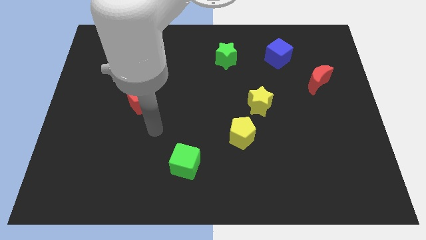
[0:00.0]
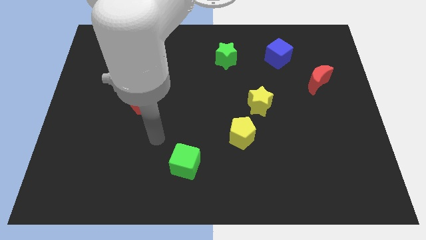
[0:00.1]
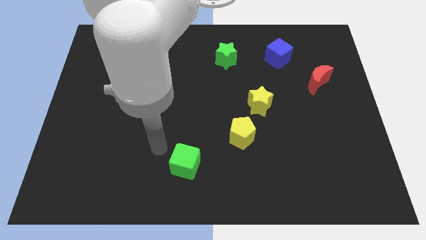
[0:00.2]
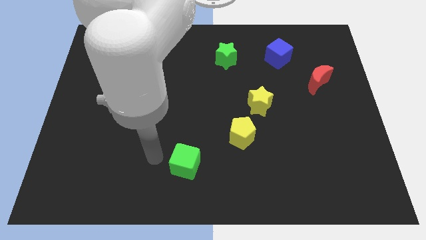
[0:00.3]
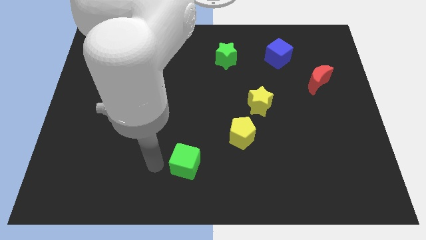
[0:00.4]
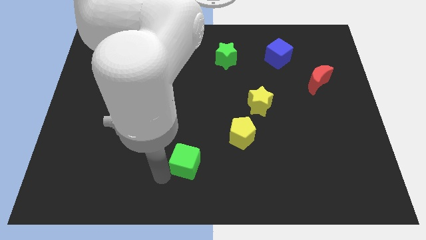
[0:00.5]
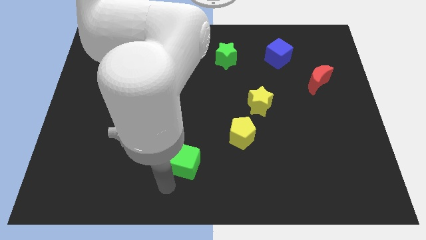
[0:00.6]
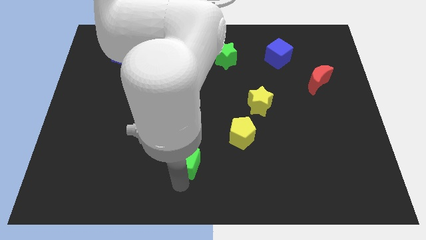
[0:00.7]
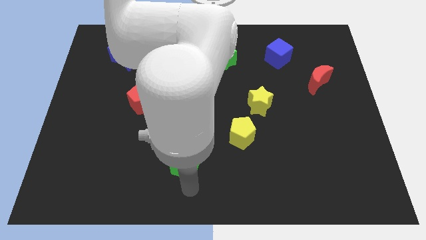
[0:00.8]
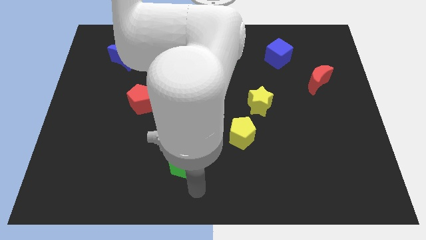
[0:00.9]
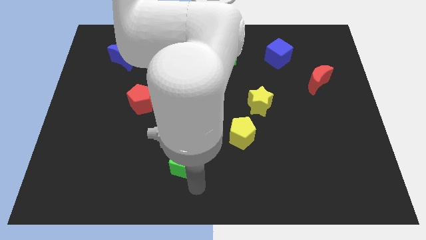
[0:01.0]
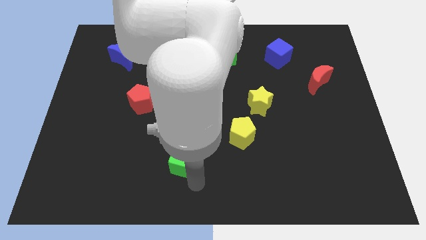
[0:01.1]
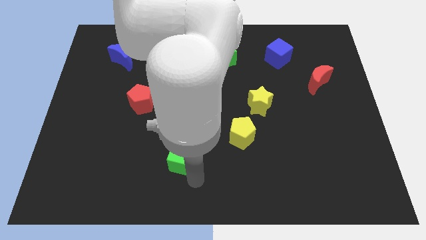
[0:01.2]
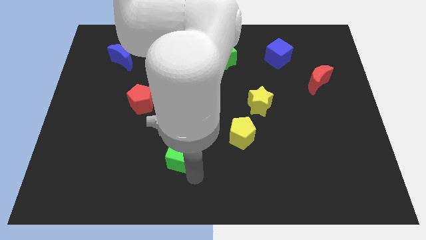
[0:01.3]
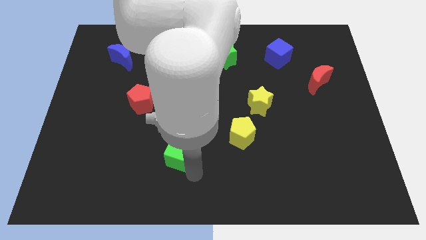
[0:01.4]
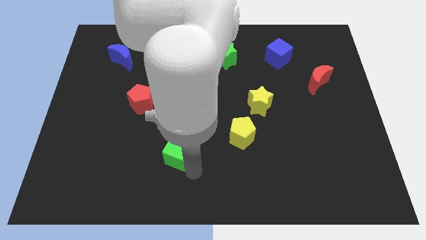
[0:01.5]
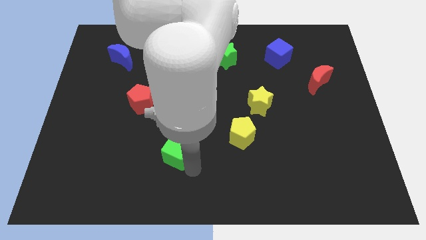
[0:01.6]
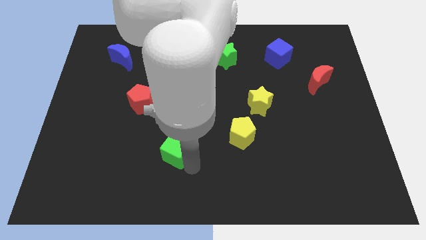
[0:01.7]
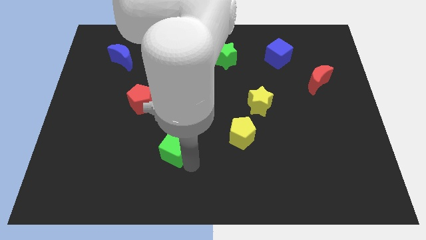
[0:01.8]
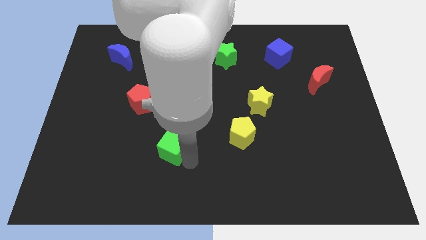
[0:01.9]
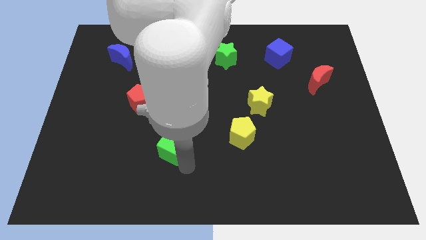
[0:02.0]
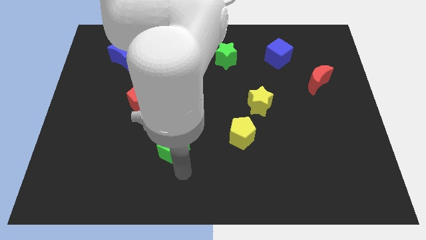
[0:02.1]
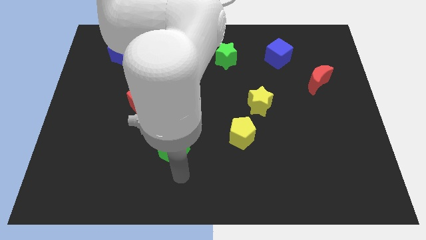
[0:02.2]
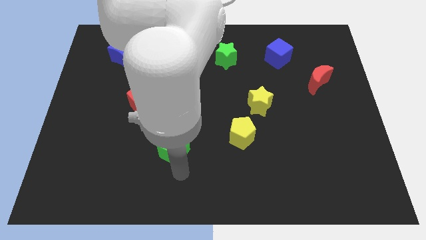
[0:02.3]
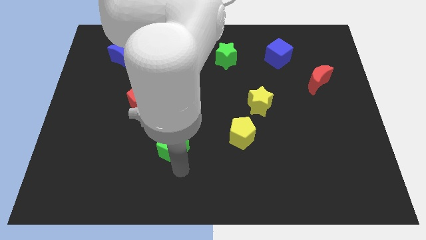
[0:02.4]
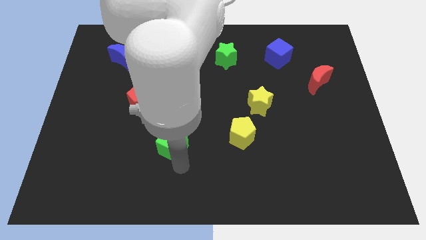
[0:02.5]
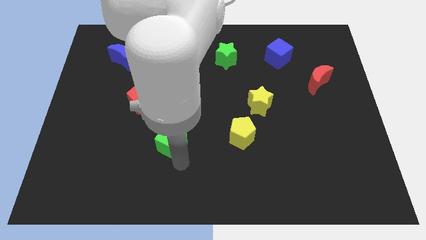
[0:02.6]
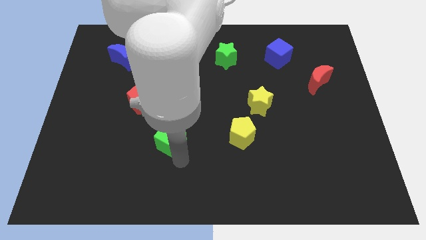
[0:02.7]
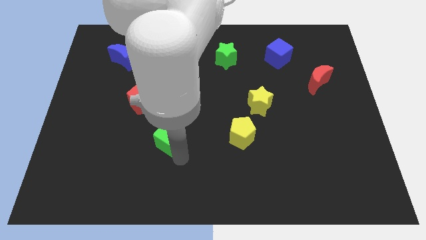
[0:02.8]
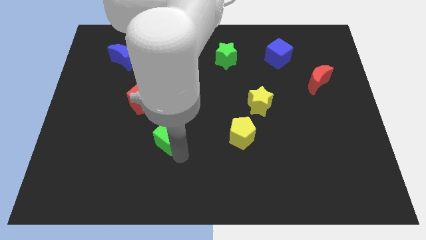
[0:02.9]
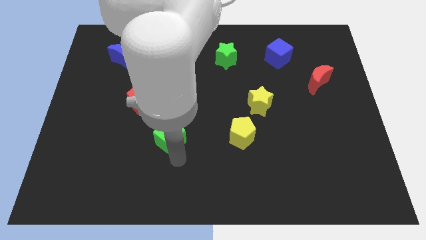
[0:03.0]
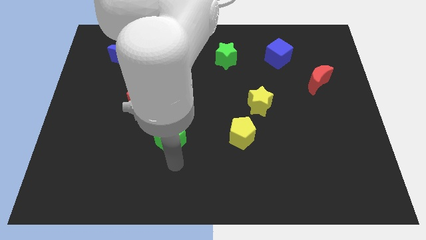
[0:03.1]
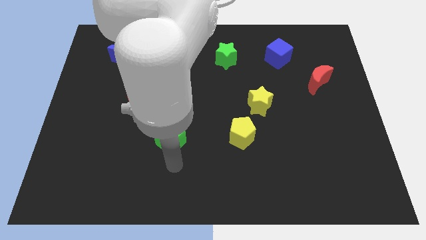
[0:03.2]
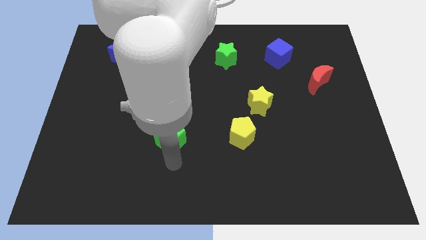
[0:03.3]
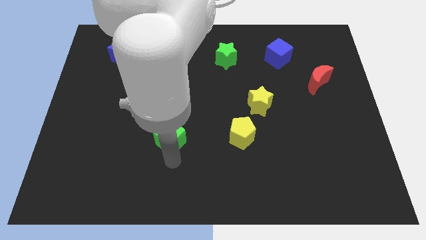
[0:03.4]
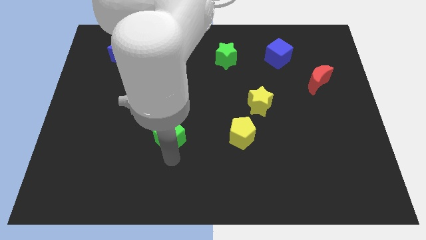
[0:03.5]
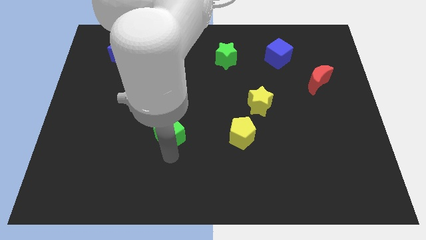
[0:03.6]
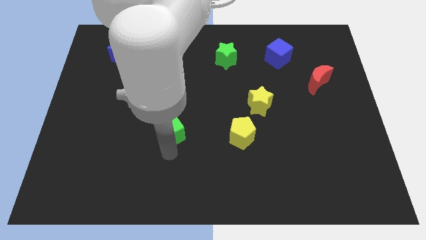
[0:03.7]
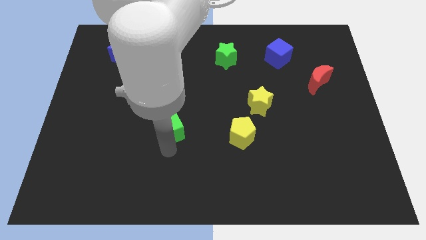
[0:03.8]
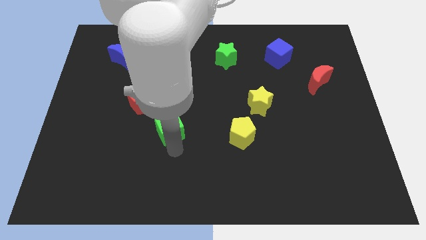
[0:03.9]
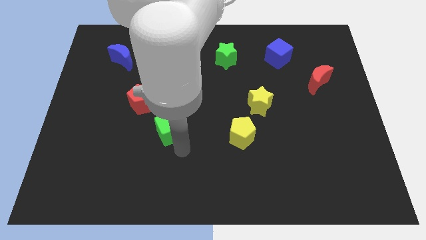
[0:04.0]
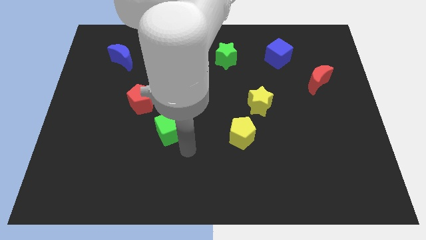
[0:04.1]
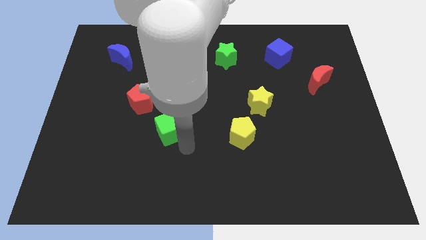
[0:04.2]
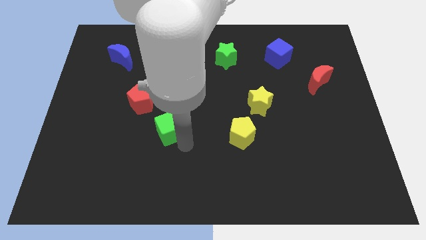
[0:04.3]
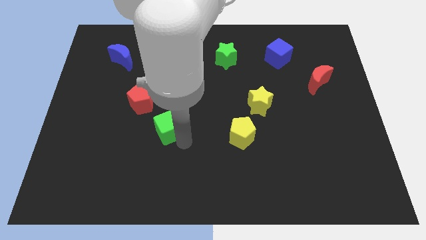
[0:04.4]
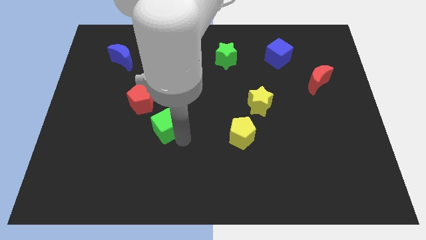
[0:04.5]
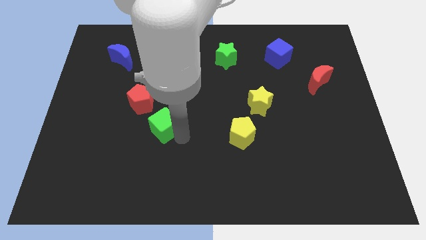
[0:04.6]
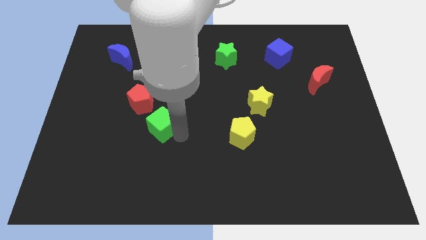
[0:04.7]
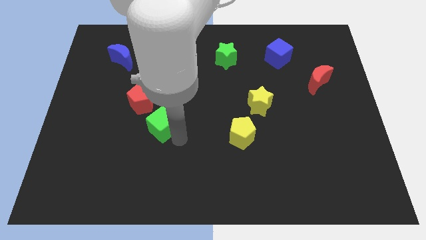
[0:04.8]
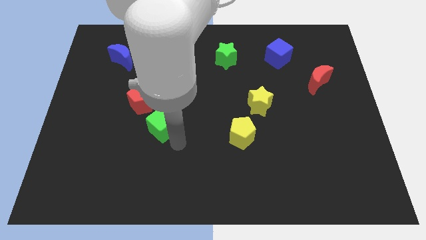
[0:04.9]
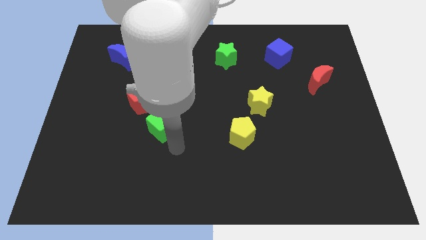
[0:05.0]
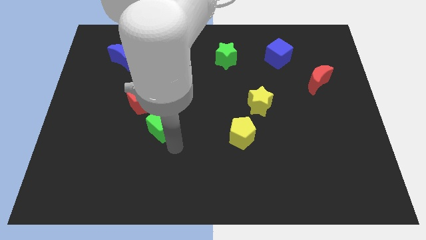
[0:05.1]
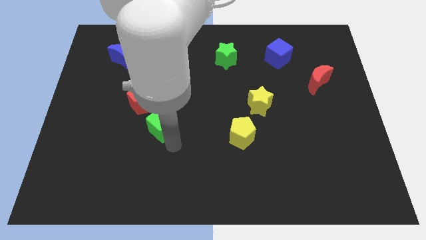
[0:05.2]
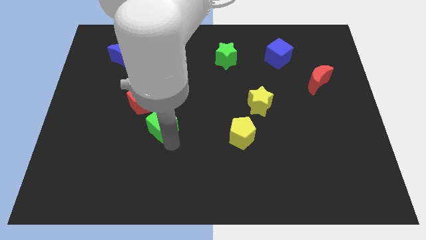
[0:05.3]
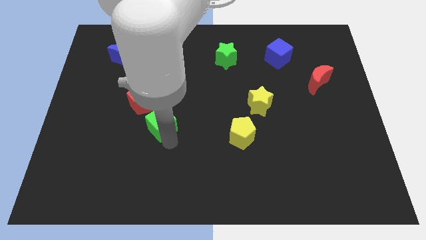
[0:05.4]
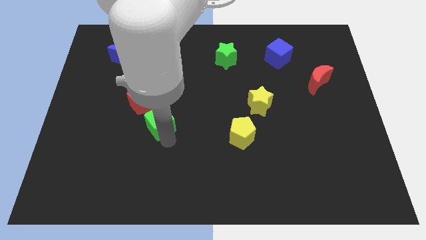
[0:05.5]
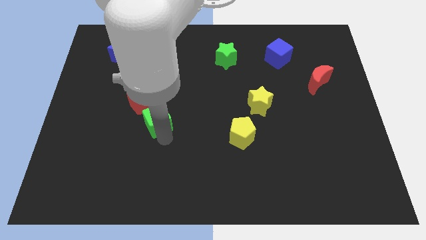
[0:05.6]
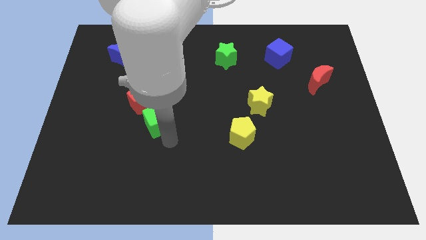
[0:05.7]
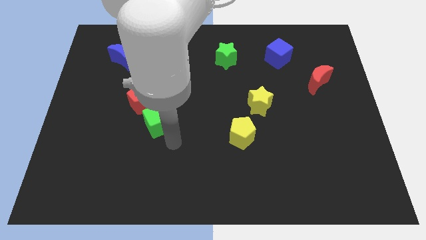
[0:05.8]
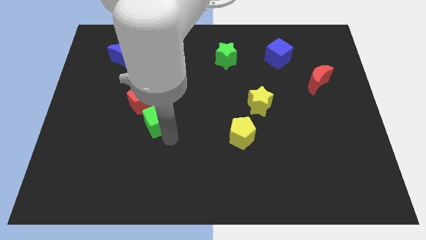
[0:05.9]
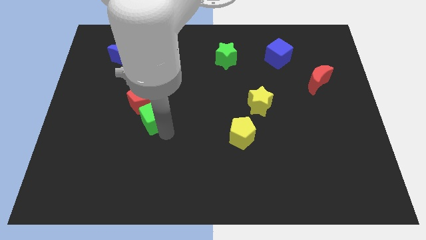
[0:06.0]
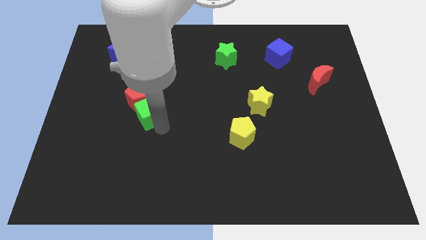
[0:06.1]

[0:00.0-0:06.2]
push the green cube to the red pentagon

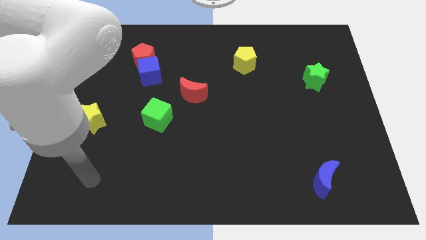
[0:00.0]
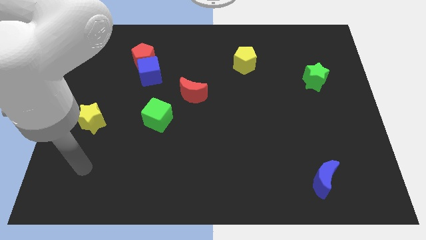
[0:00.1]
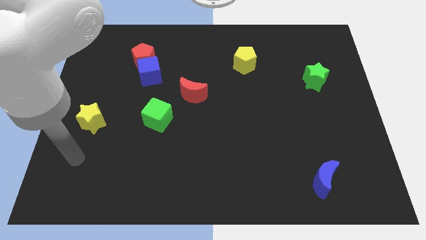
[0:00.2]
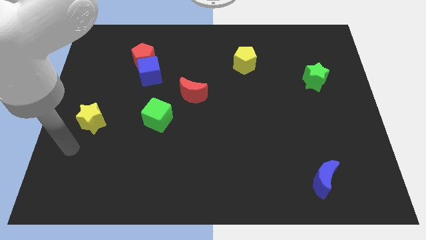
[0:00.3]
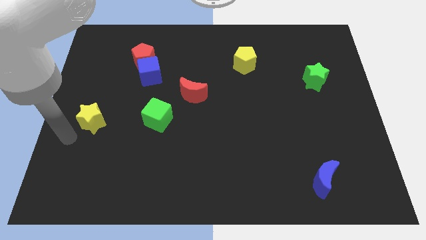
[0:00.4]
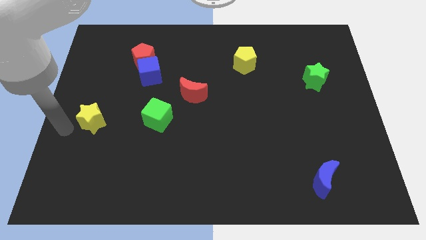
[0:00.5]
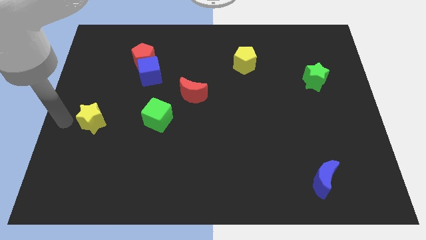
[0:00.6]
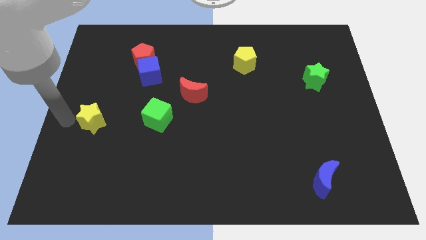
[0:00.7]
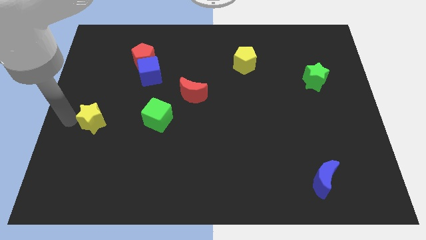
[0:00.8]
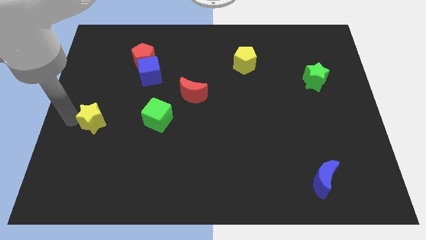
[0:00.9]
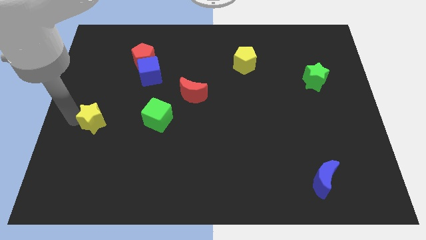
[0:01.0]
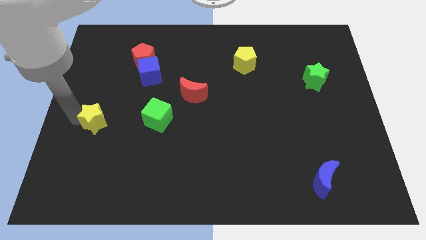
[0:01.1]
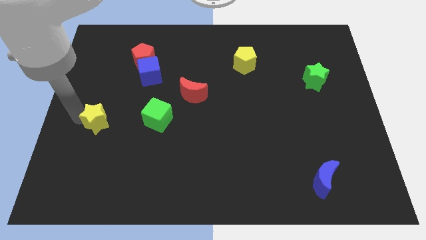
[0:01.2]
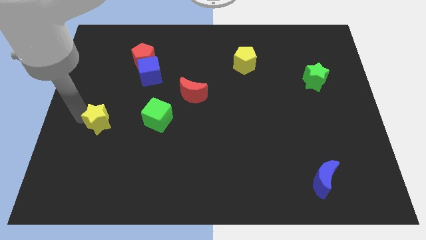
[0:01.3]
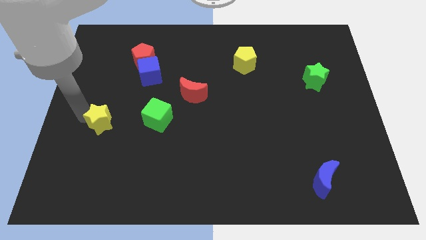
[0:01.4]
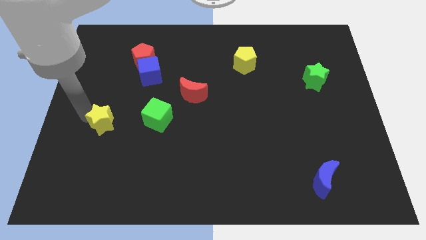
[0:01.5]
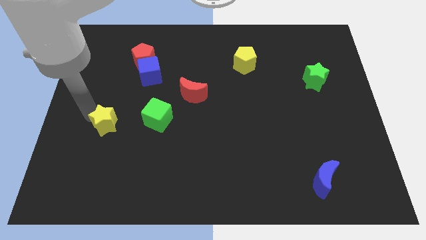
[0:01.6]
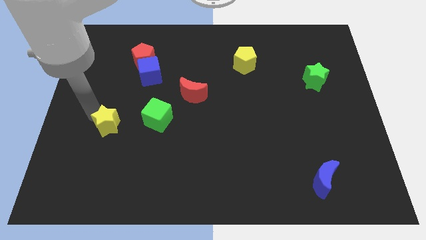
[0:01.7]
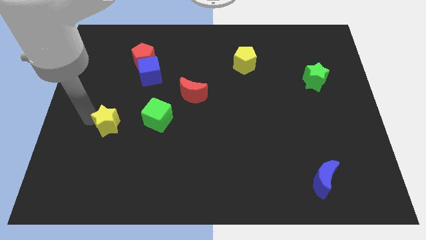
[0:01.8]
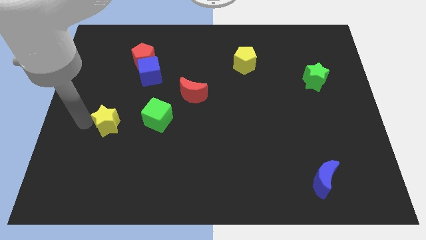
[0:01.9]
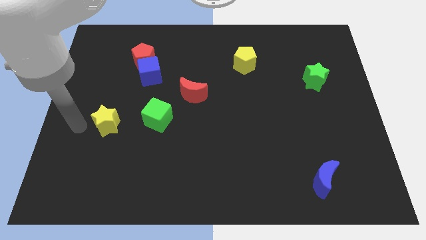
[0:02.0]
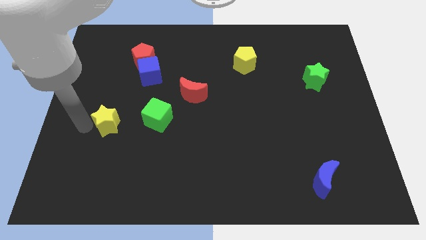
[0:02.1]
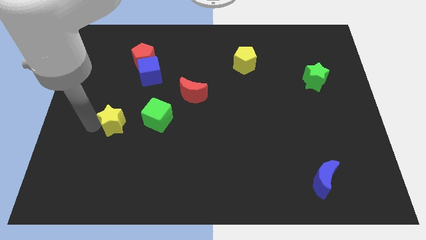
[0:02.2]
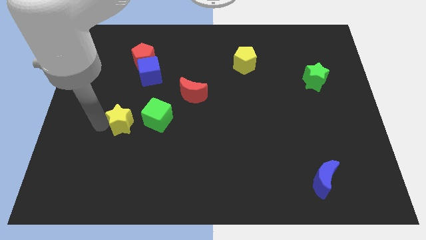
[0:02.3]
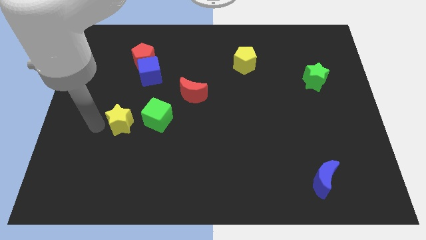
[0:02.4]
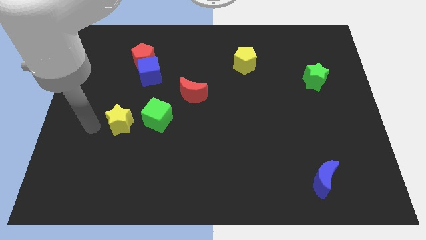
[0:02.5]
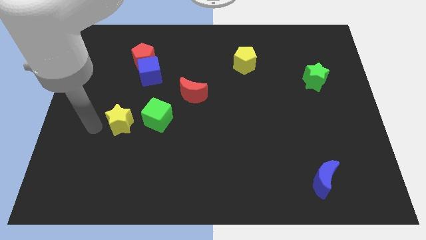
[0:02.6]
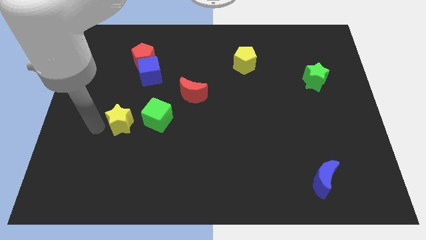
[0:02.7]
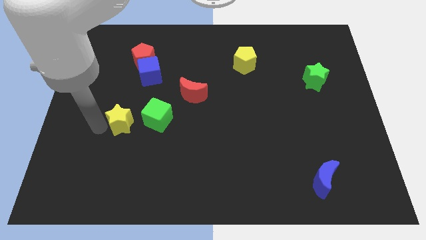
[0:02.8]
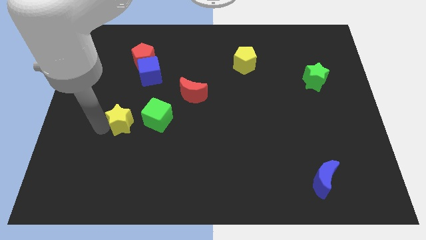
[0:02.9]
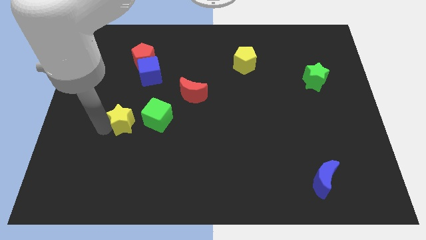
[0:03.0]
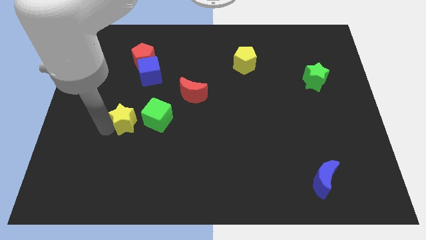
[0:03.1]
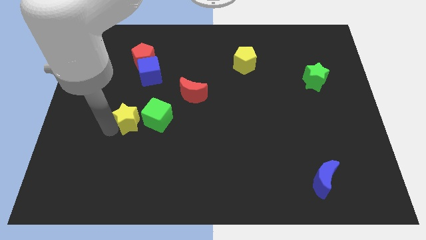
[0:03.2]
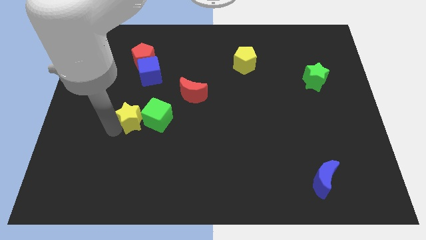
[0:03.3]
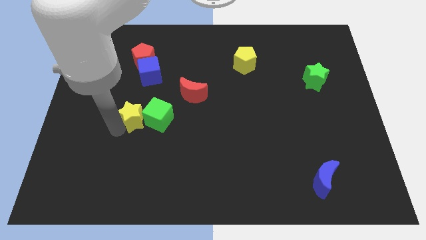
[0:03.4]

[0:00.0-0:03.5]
move the yellow star towards the green cube
